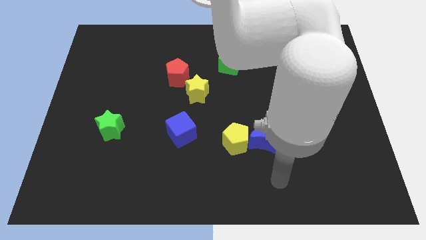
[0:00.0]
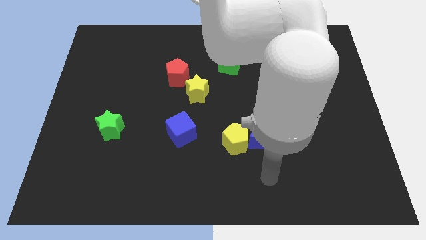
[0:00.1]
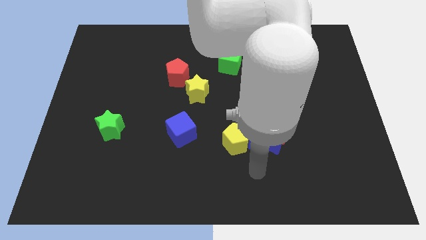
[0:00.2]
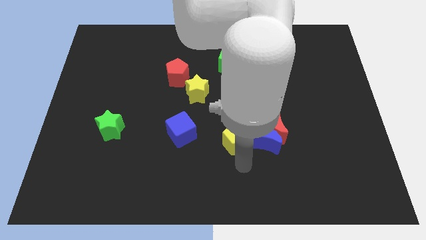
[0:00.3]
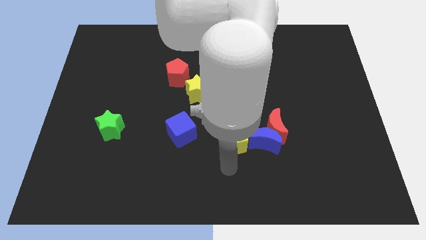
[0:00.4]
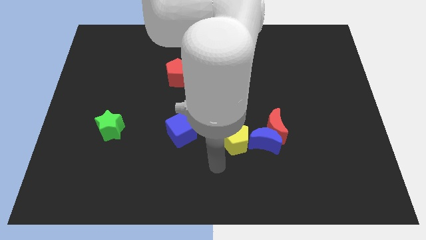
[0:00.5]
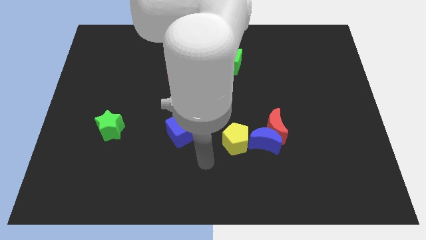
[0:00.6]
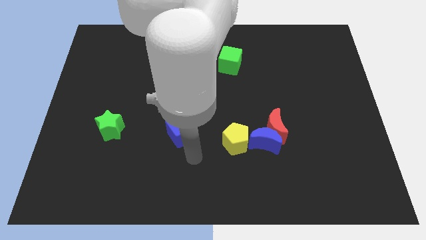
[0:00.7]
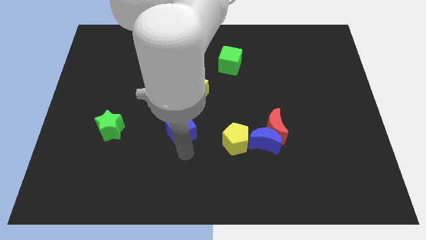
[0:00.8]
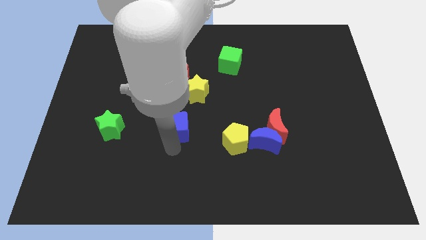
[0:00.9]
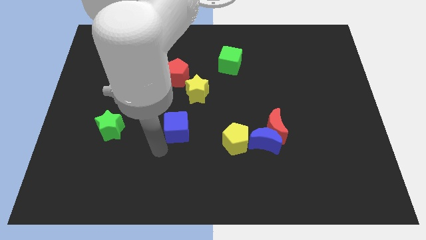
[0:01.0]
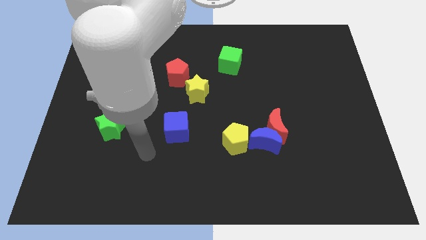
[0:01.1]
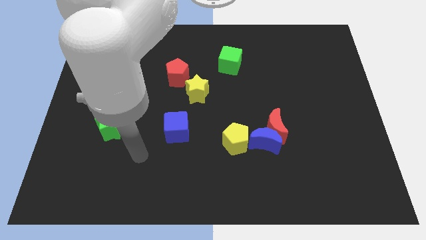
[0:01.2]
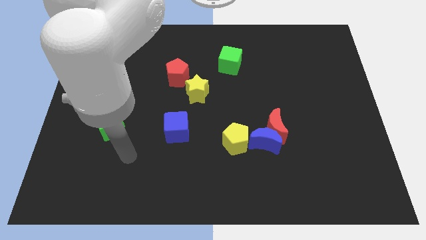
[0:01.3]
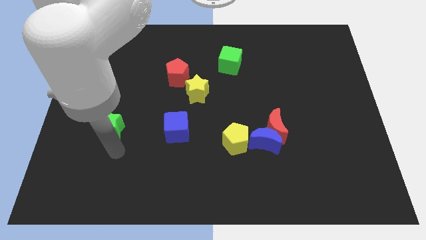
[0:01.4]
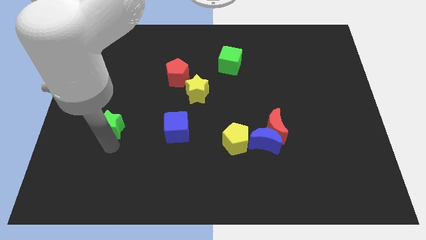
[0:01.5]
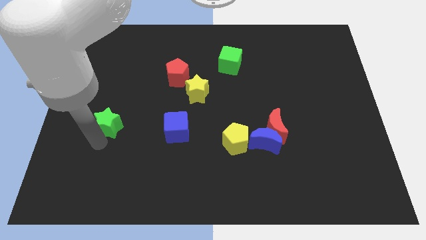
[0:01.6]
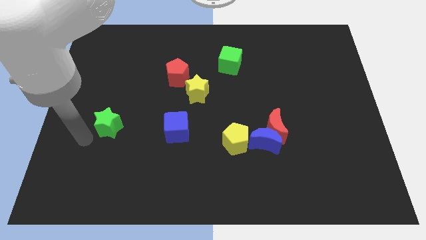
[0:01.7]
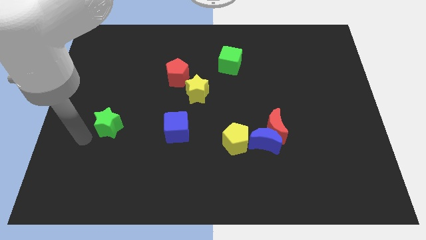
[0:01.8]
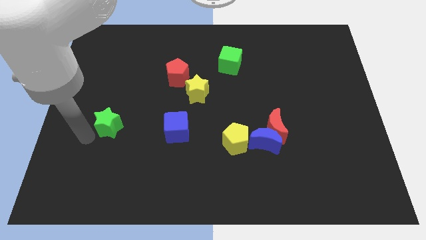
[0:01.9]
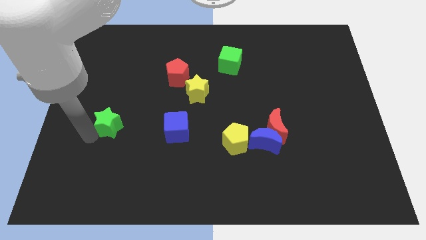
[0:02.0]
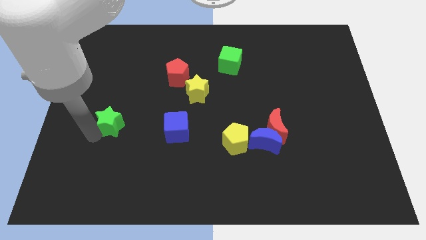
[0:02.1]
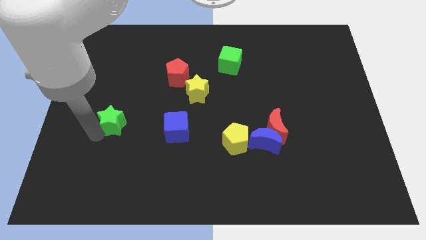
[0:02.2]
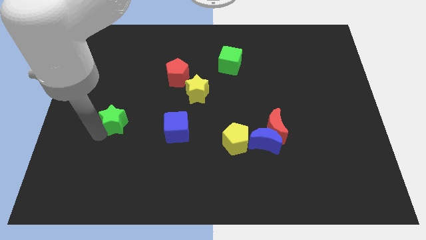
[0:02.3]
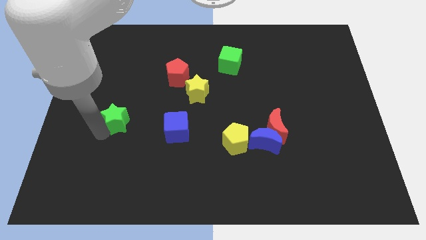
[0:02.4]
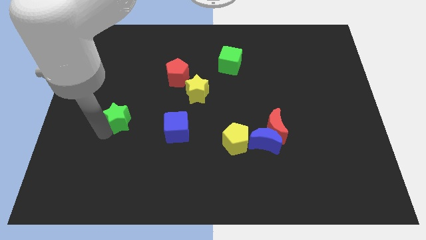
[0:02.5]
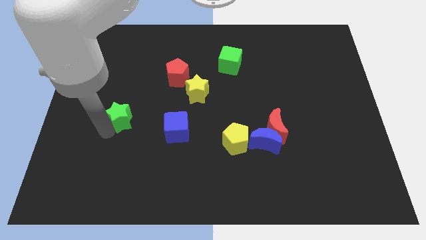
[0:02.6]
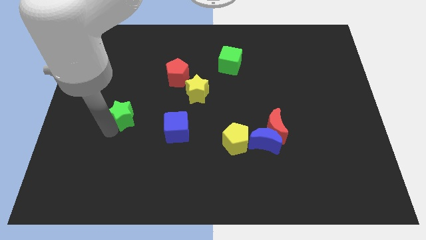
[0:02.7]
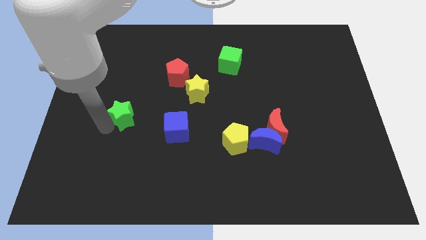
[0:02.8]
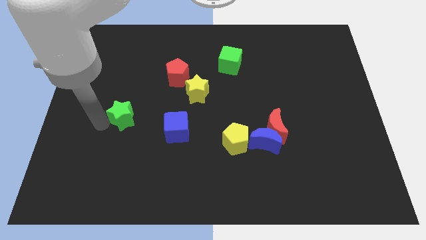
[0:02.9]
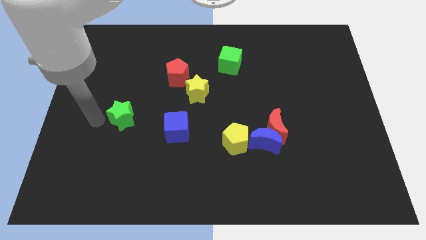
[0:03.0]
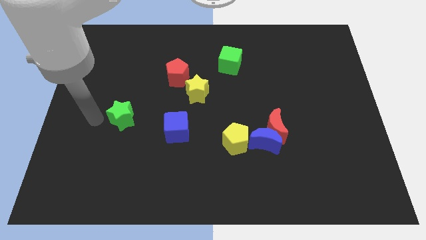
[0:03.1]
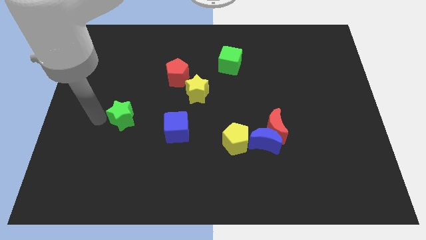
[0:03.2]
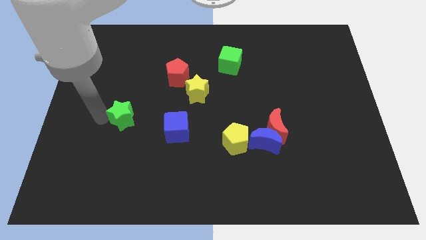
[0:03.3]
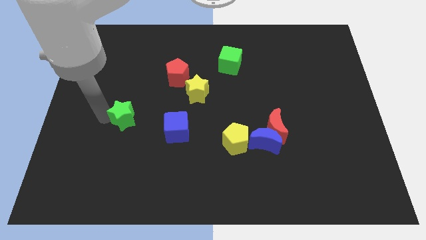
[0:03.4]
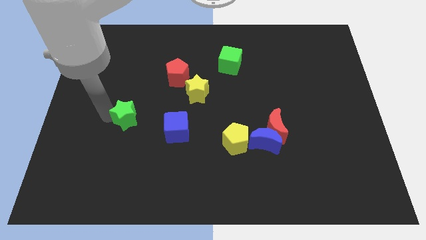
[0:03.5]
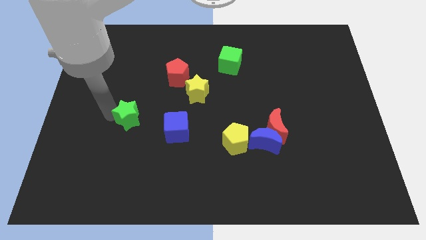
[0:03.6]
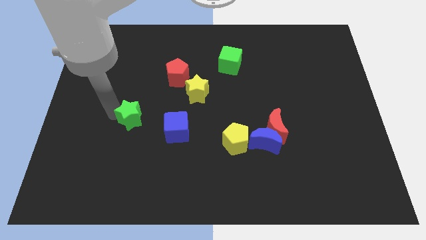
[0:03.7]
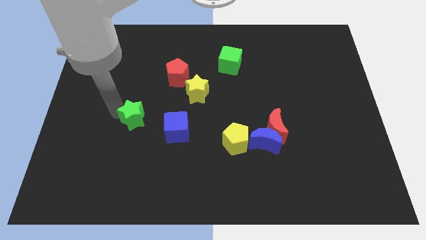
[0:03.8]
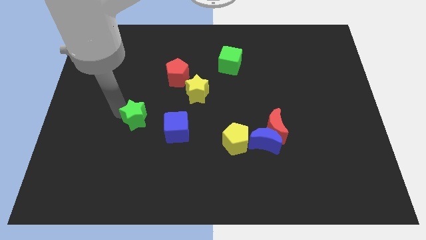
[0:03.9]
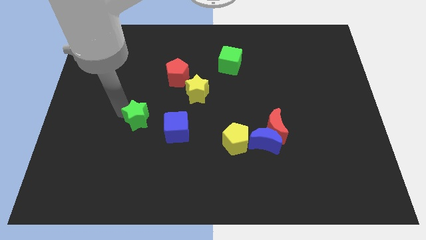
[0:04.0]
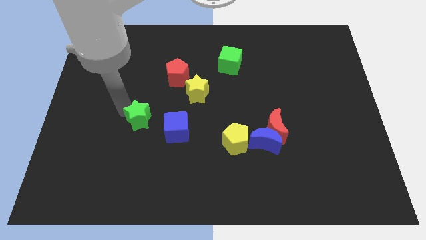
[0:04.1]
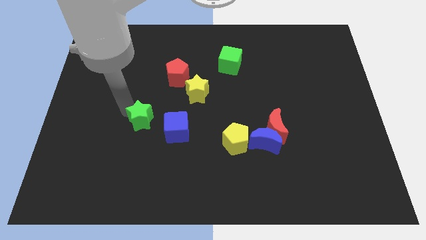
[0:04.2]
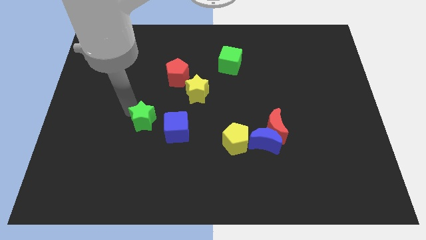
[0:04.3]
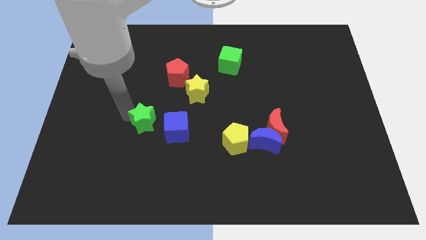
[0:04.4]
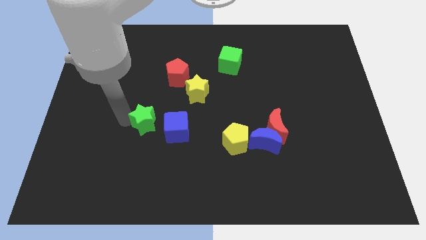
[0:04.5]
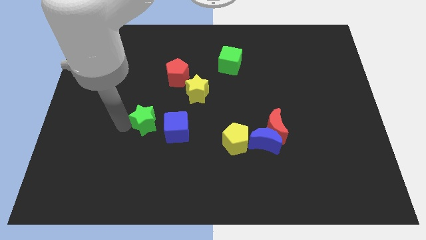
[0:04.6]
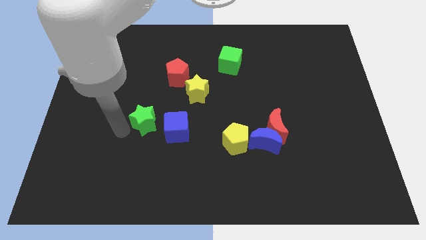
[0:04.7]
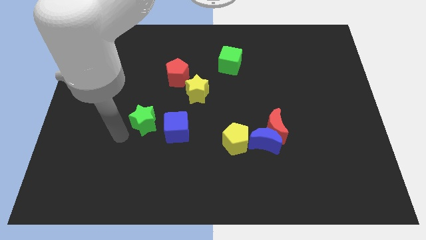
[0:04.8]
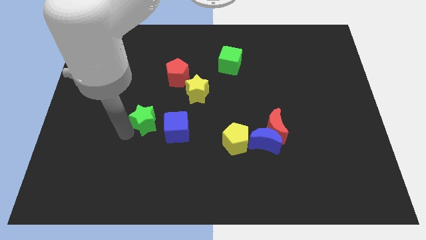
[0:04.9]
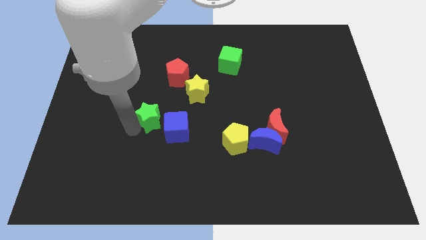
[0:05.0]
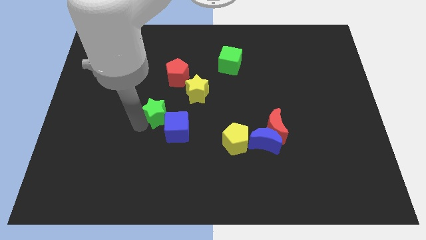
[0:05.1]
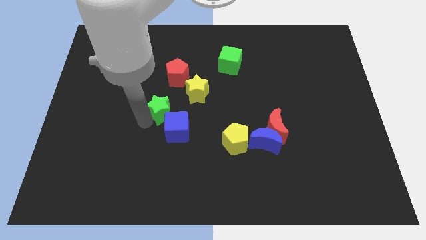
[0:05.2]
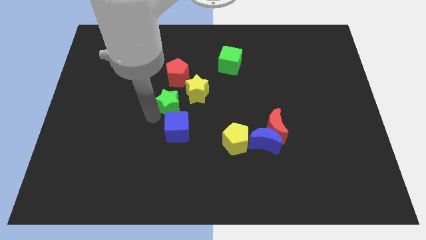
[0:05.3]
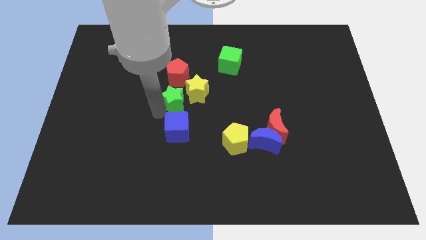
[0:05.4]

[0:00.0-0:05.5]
move the green star close to the yellow star

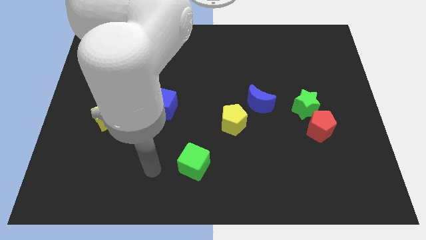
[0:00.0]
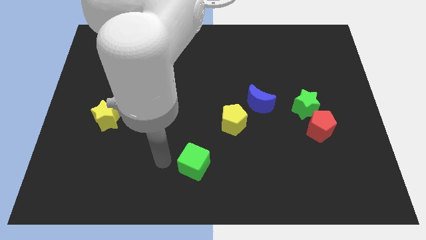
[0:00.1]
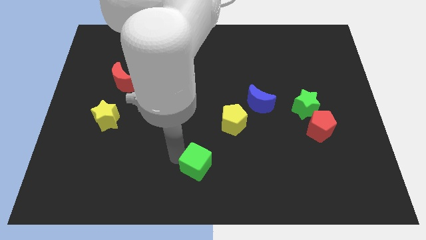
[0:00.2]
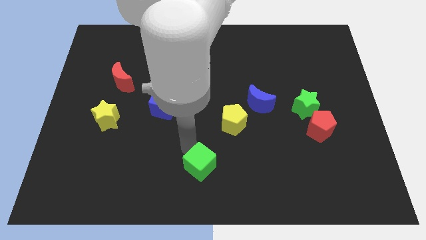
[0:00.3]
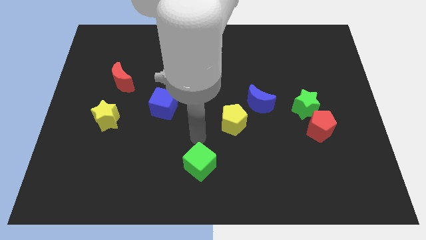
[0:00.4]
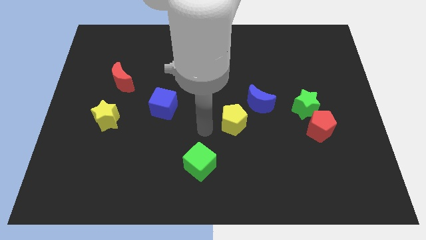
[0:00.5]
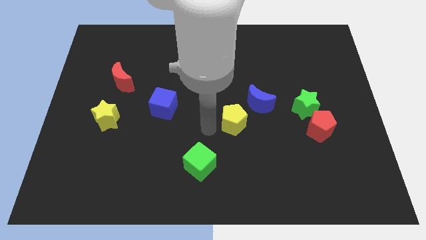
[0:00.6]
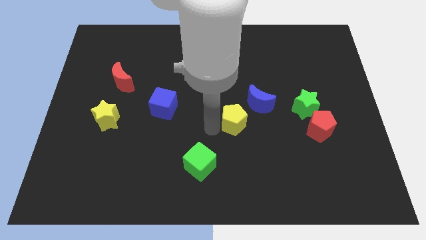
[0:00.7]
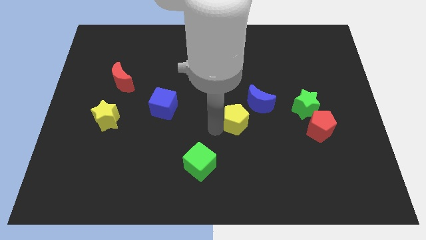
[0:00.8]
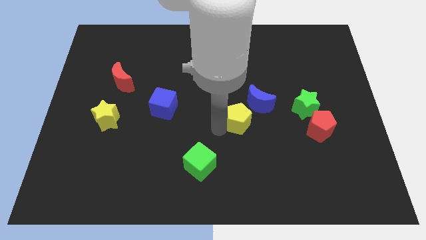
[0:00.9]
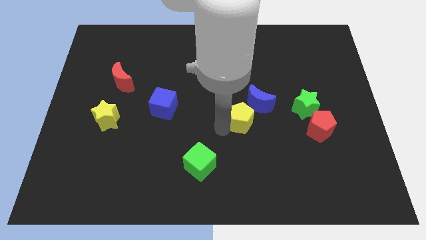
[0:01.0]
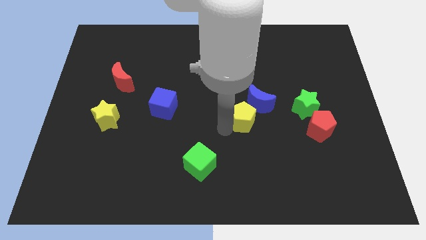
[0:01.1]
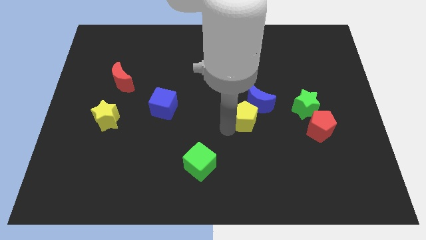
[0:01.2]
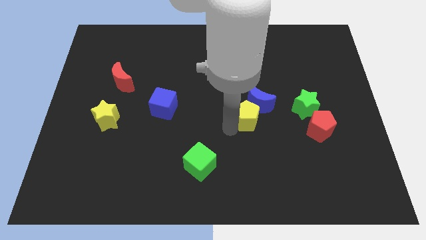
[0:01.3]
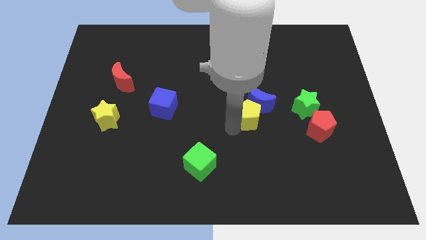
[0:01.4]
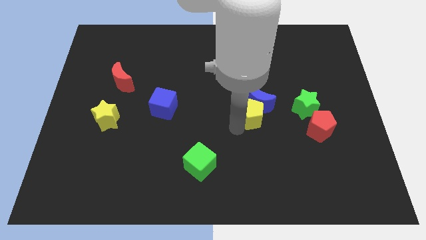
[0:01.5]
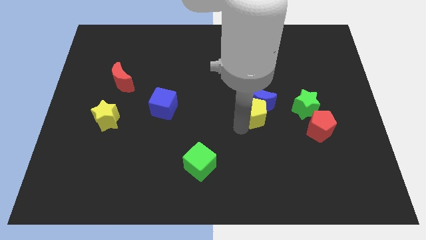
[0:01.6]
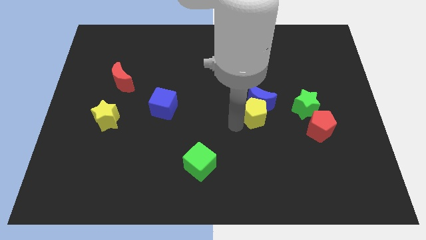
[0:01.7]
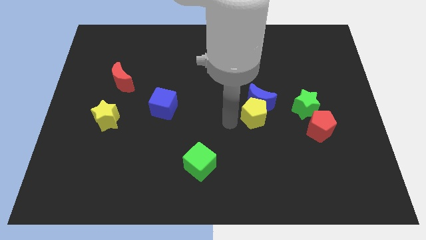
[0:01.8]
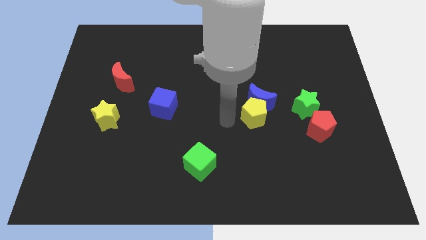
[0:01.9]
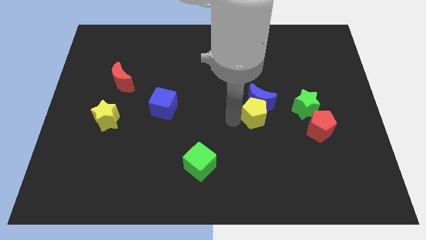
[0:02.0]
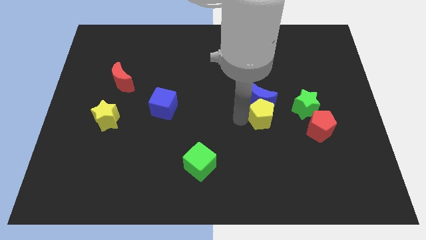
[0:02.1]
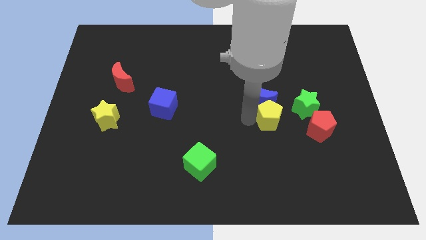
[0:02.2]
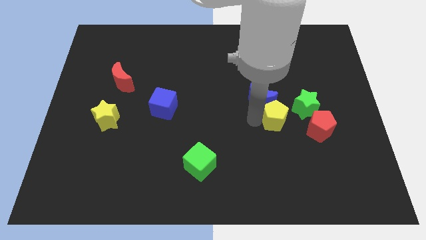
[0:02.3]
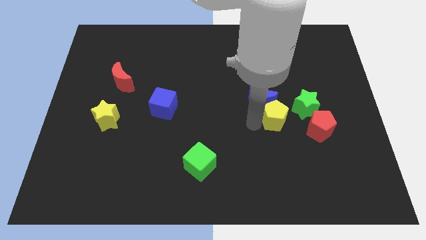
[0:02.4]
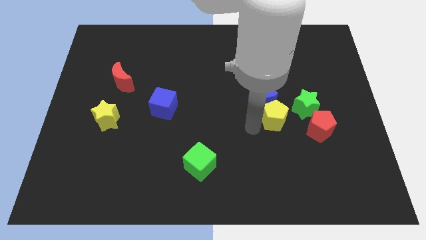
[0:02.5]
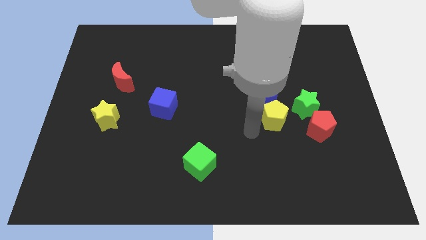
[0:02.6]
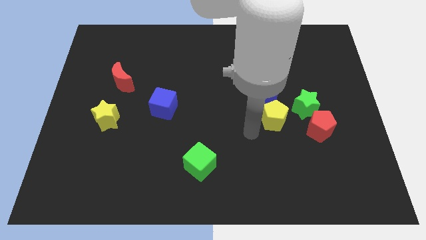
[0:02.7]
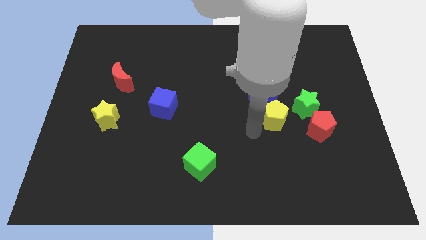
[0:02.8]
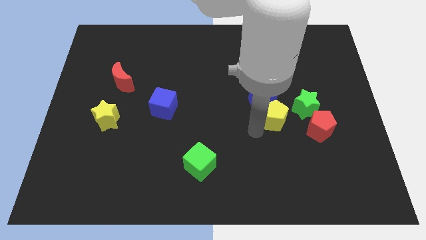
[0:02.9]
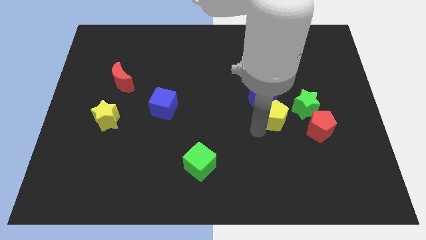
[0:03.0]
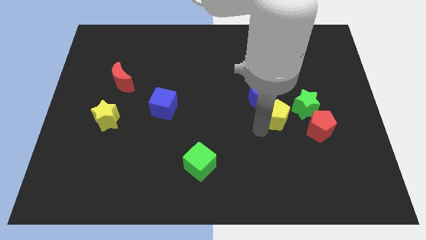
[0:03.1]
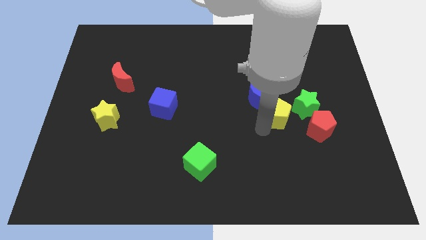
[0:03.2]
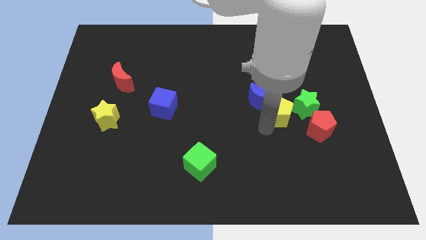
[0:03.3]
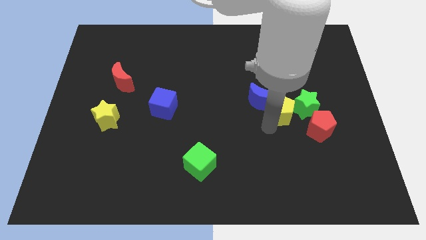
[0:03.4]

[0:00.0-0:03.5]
put the yellow pentagon to the green star
